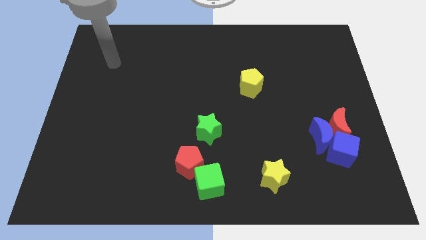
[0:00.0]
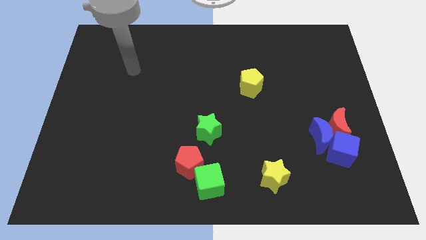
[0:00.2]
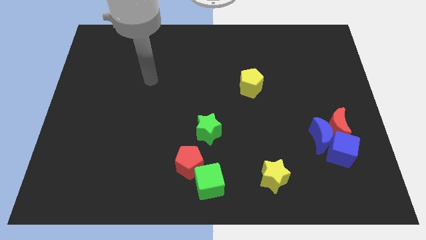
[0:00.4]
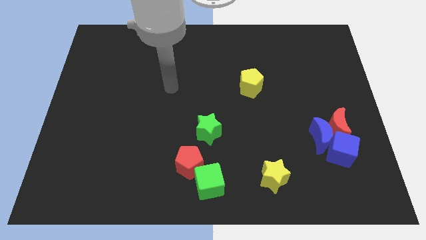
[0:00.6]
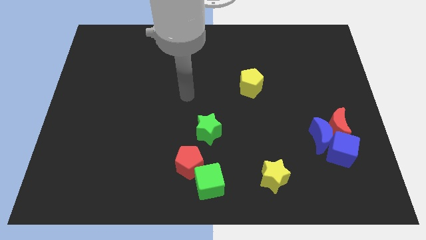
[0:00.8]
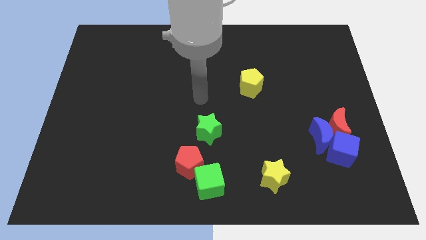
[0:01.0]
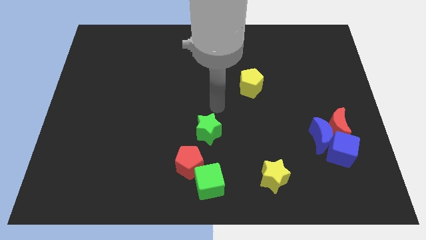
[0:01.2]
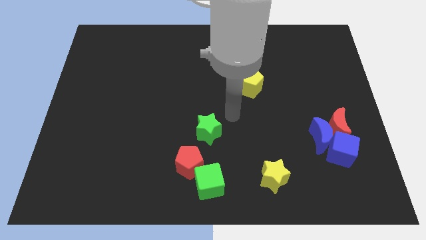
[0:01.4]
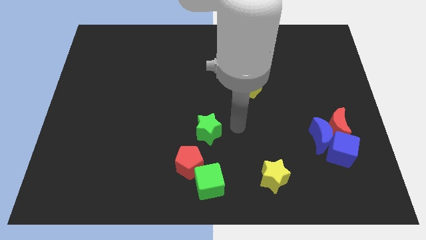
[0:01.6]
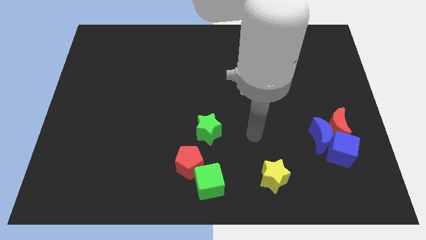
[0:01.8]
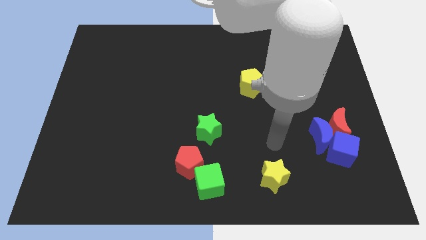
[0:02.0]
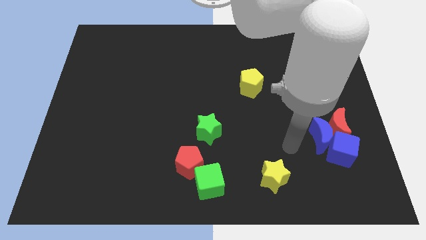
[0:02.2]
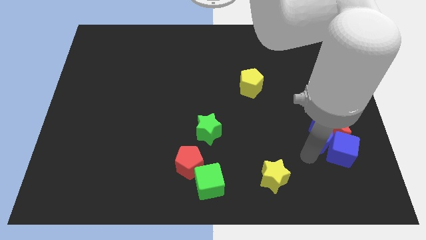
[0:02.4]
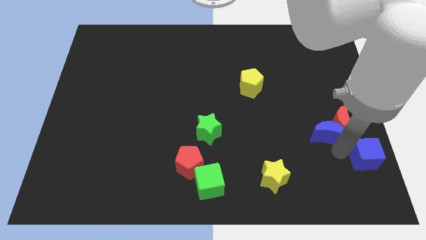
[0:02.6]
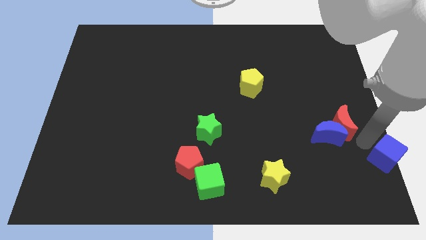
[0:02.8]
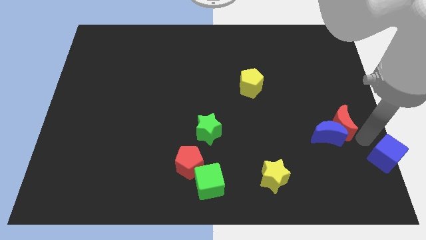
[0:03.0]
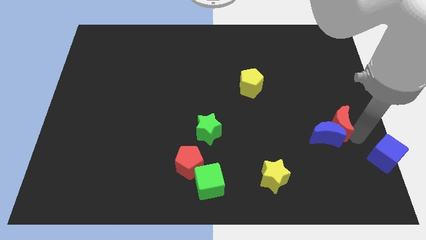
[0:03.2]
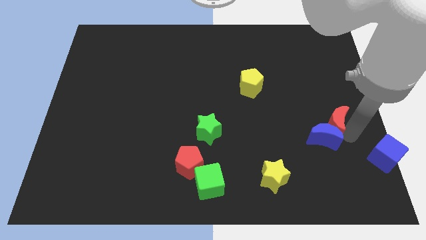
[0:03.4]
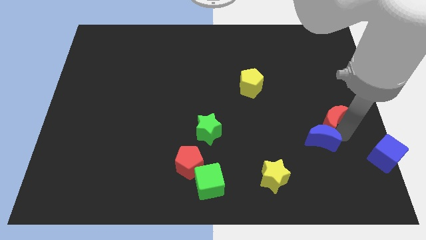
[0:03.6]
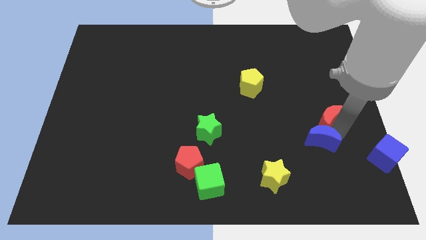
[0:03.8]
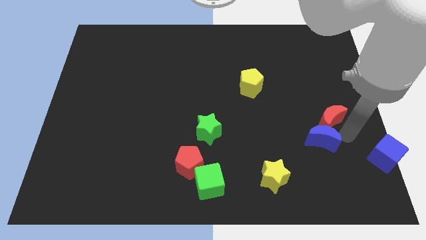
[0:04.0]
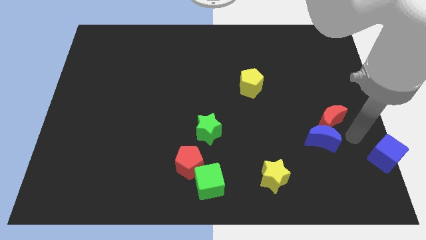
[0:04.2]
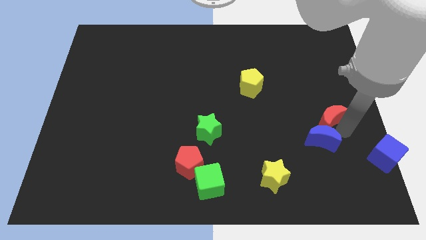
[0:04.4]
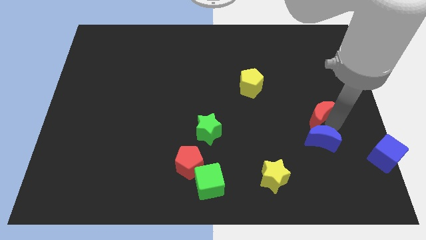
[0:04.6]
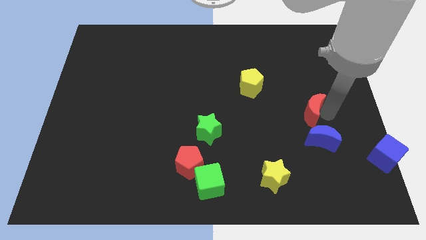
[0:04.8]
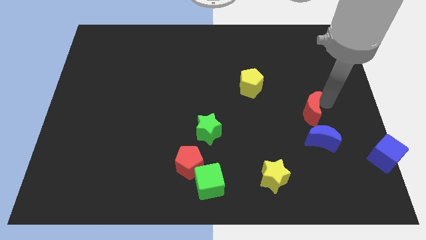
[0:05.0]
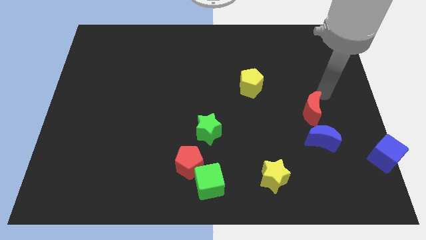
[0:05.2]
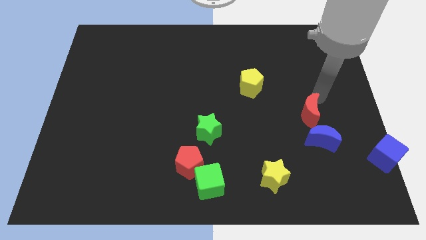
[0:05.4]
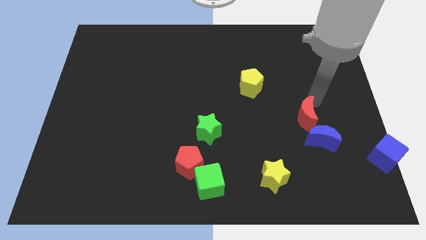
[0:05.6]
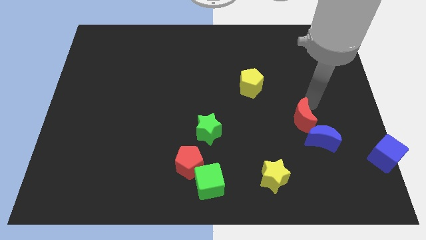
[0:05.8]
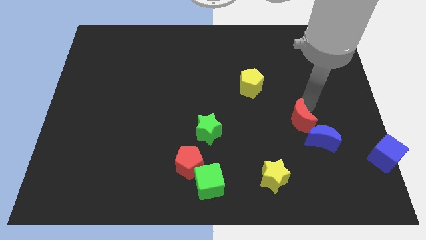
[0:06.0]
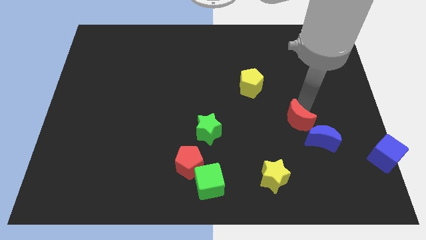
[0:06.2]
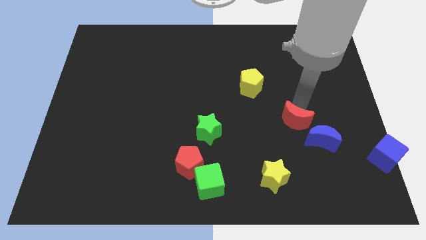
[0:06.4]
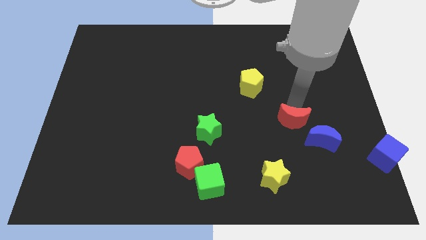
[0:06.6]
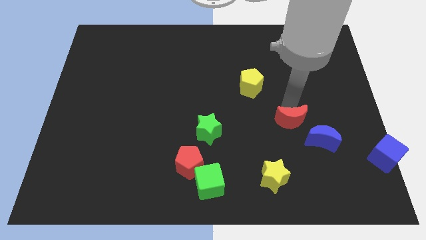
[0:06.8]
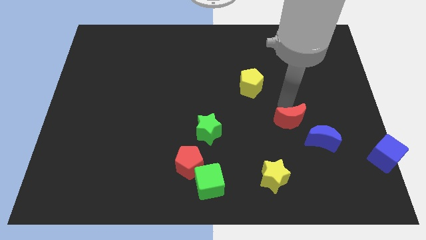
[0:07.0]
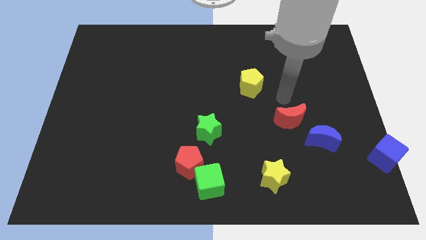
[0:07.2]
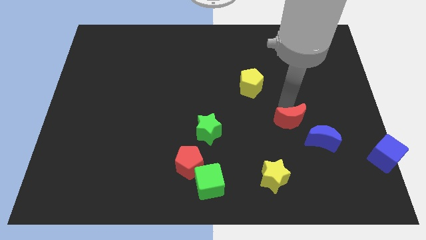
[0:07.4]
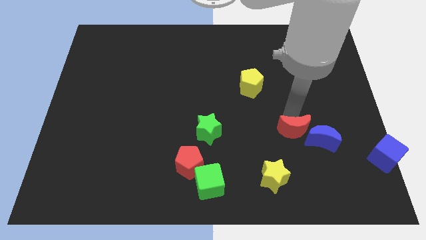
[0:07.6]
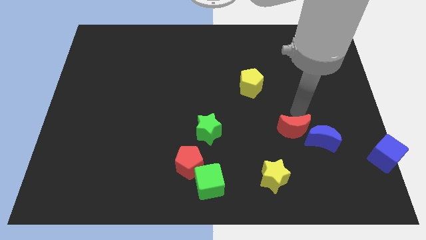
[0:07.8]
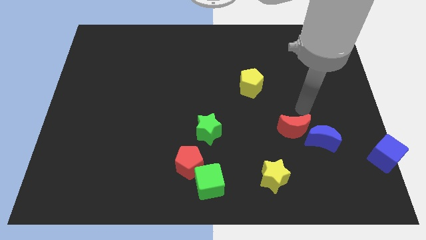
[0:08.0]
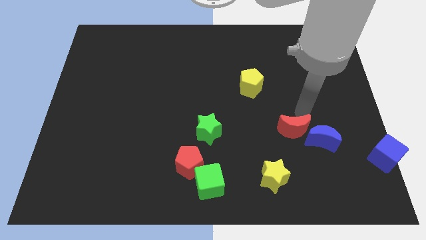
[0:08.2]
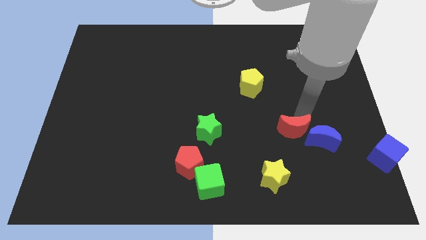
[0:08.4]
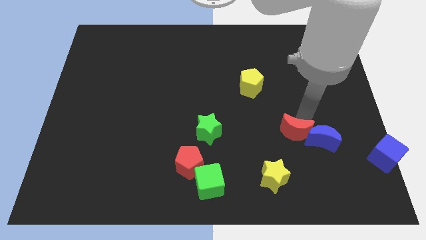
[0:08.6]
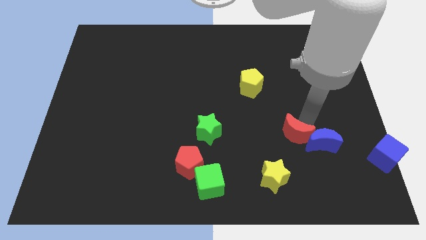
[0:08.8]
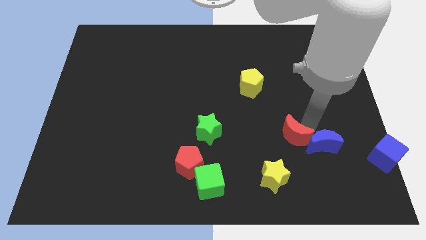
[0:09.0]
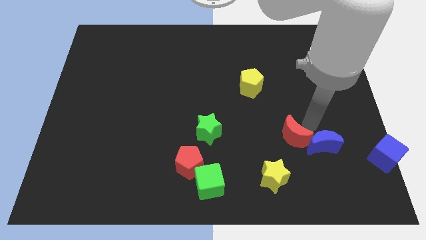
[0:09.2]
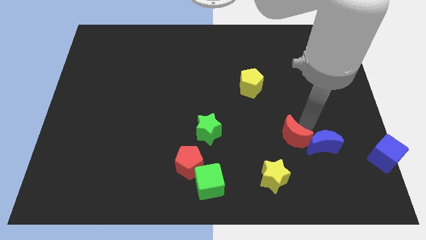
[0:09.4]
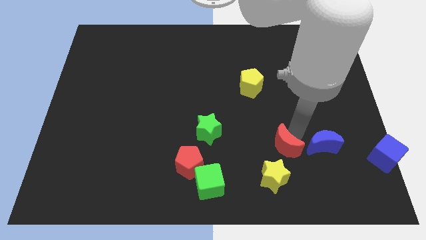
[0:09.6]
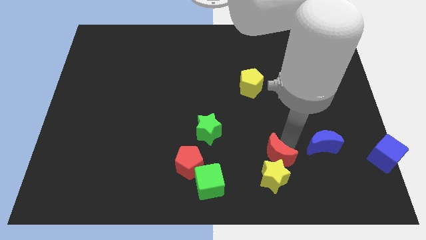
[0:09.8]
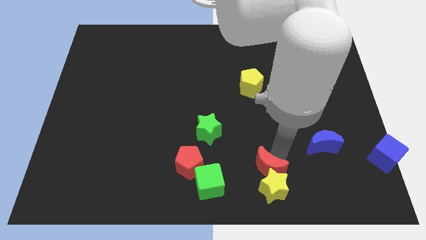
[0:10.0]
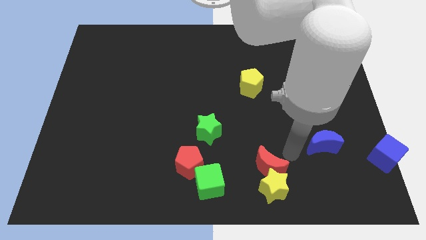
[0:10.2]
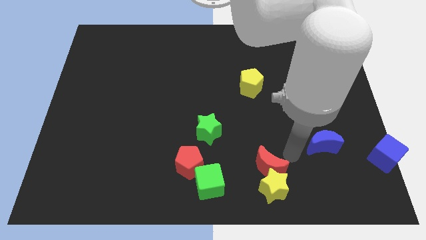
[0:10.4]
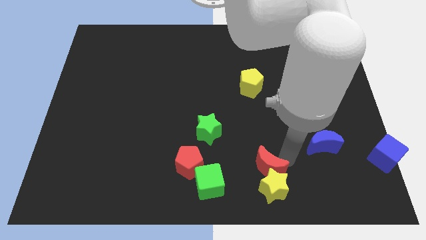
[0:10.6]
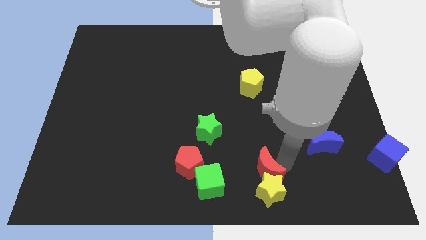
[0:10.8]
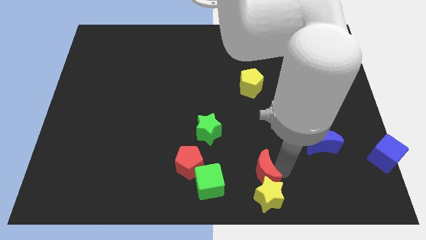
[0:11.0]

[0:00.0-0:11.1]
slide the red moon to the bottom
